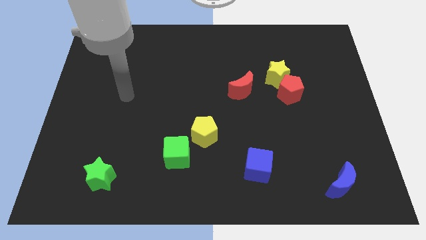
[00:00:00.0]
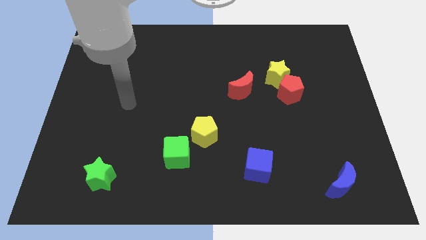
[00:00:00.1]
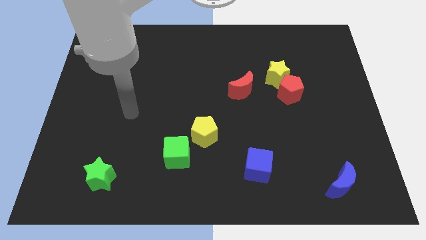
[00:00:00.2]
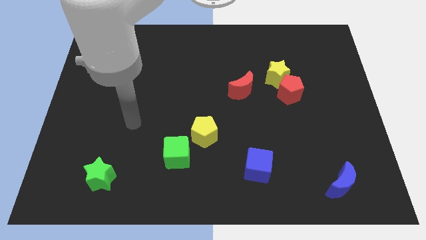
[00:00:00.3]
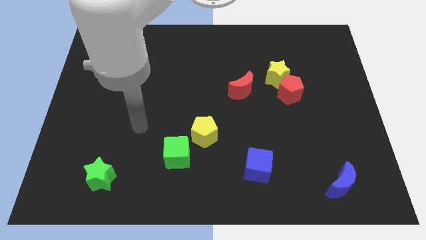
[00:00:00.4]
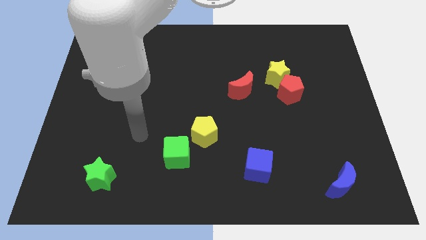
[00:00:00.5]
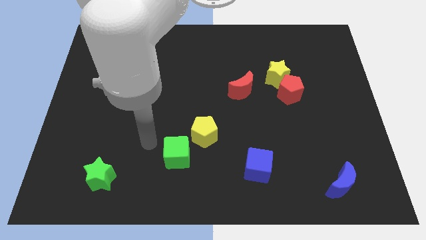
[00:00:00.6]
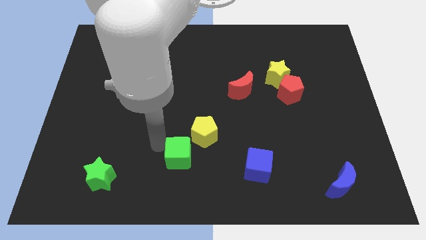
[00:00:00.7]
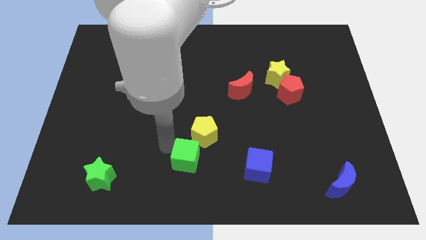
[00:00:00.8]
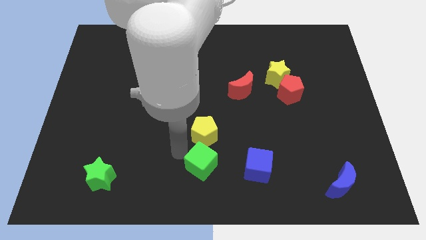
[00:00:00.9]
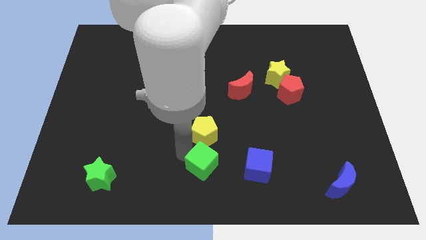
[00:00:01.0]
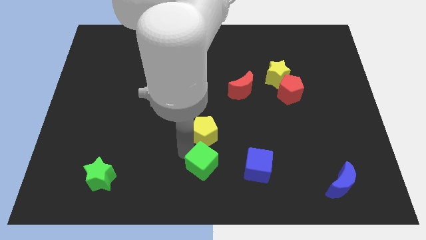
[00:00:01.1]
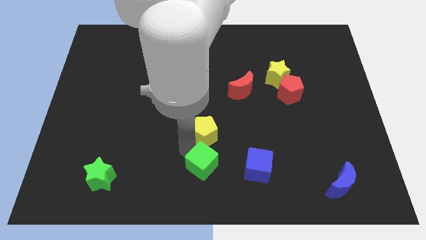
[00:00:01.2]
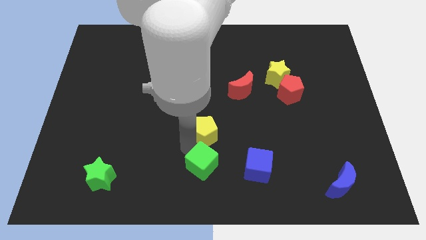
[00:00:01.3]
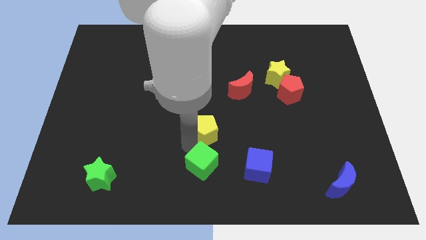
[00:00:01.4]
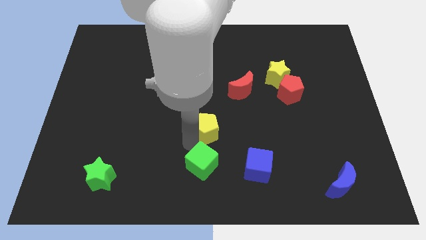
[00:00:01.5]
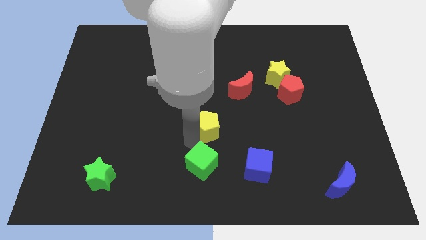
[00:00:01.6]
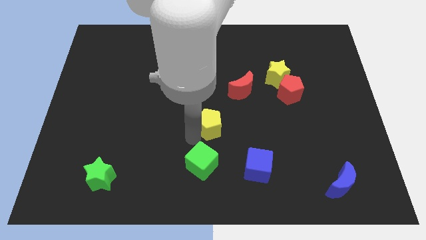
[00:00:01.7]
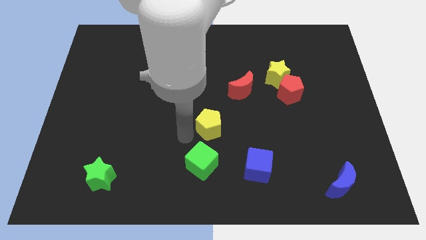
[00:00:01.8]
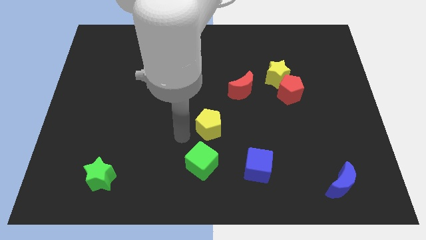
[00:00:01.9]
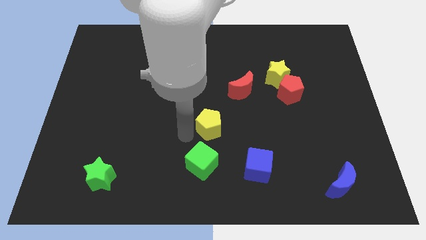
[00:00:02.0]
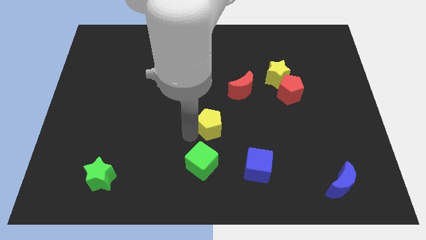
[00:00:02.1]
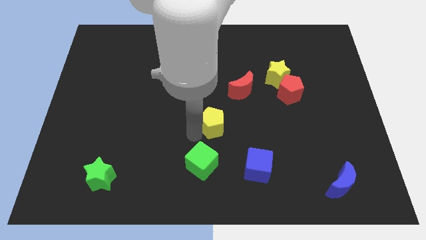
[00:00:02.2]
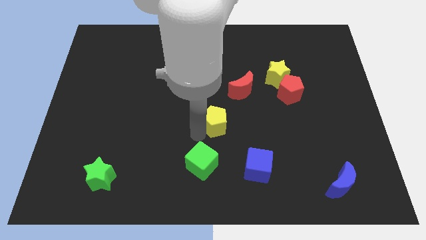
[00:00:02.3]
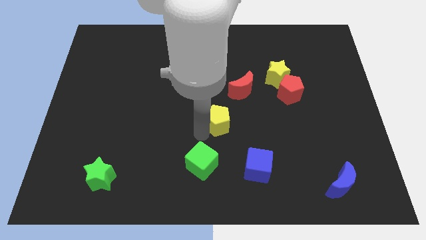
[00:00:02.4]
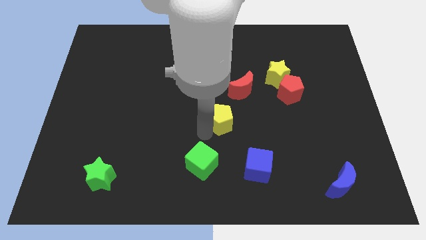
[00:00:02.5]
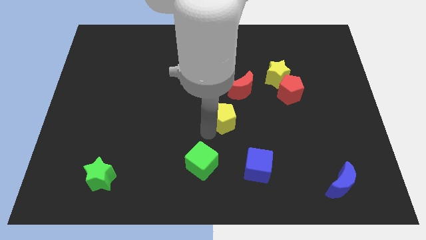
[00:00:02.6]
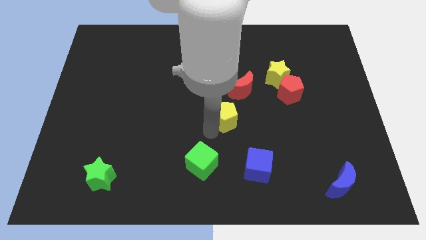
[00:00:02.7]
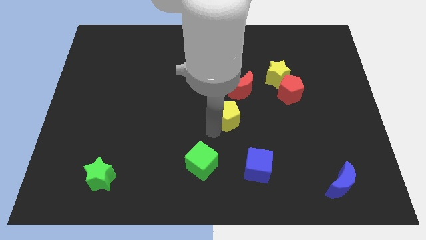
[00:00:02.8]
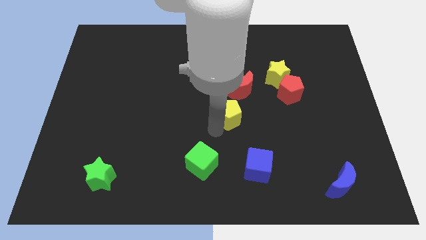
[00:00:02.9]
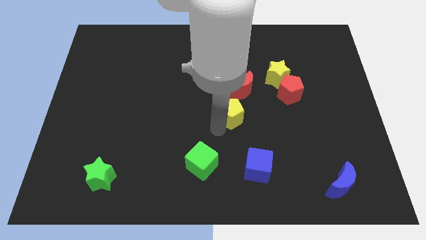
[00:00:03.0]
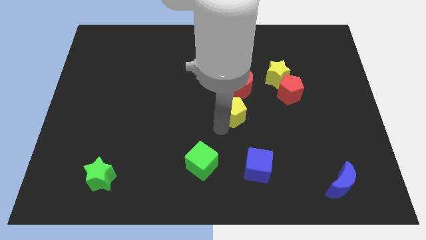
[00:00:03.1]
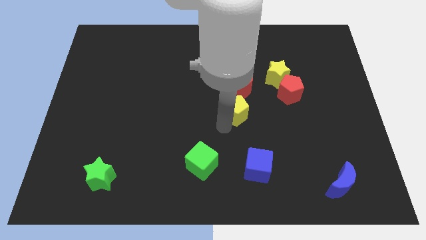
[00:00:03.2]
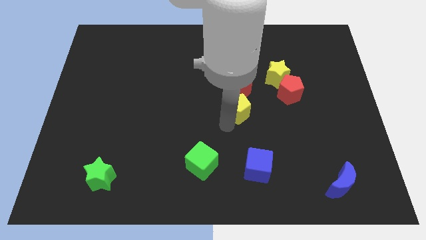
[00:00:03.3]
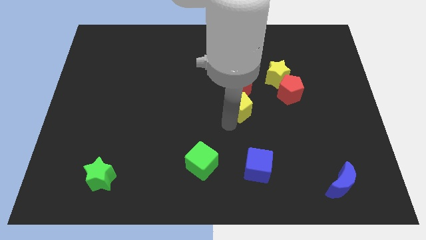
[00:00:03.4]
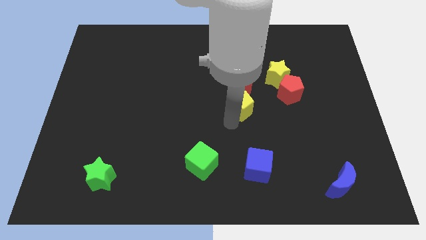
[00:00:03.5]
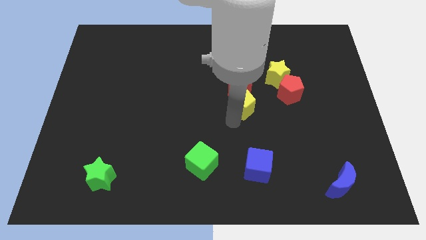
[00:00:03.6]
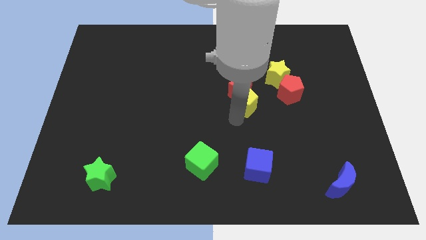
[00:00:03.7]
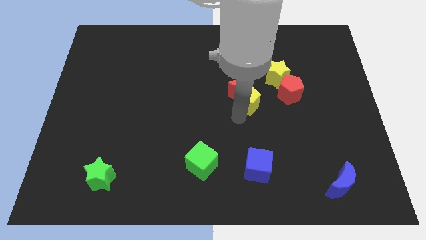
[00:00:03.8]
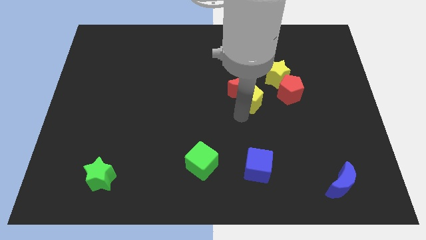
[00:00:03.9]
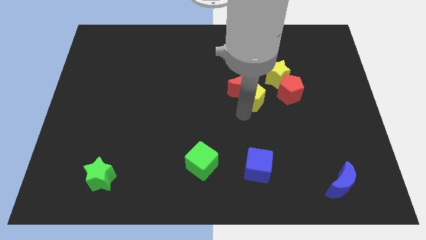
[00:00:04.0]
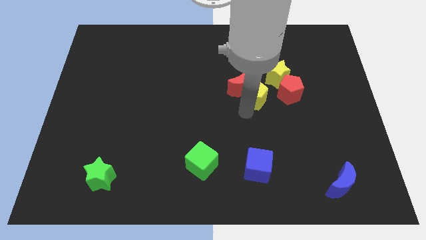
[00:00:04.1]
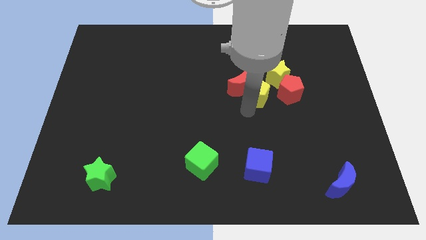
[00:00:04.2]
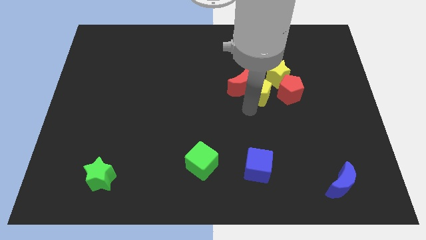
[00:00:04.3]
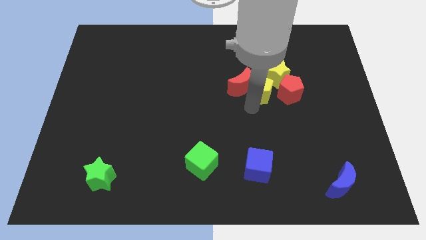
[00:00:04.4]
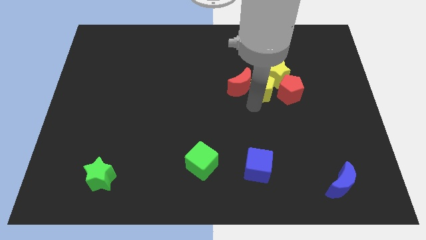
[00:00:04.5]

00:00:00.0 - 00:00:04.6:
move the yellow pentagon next to the yellow star

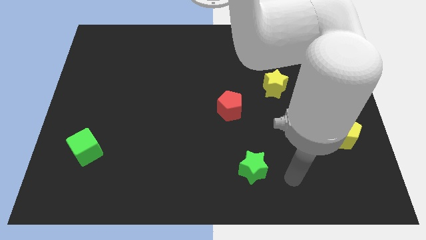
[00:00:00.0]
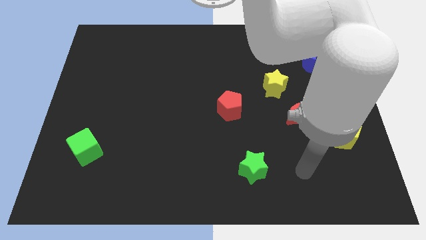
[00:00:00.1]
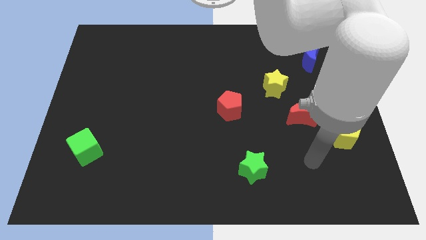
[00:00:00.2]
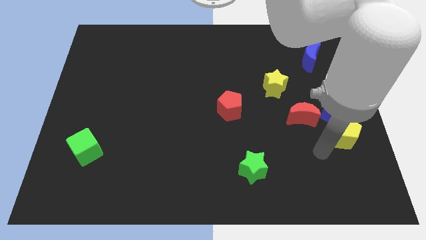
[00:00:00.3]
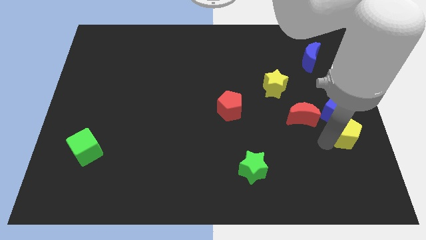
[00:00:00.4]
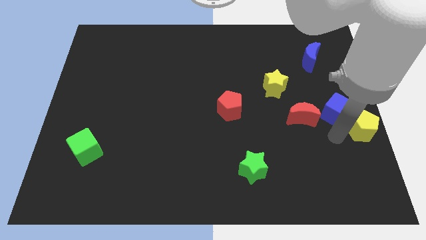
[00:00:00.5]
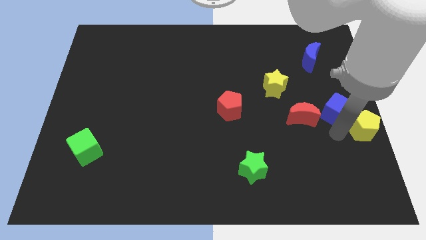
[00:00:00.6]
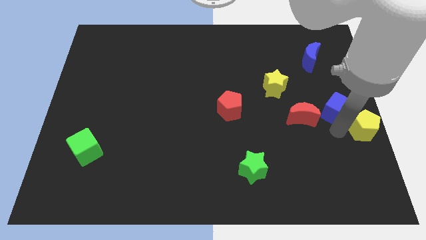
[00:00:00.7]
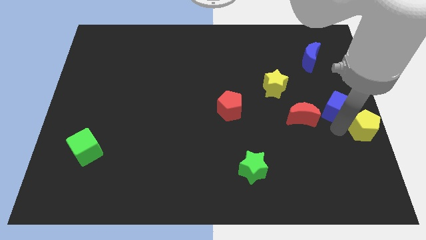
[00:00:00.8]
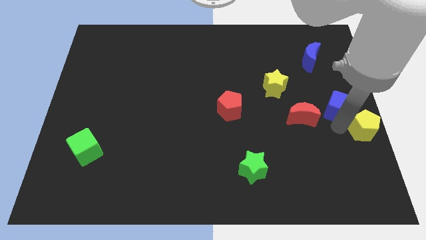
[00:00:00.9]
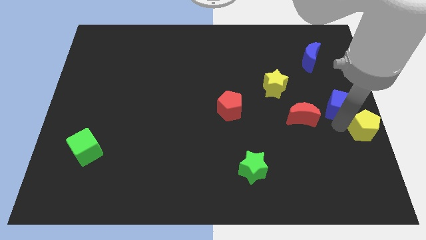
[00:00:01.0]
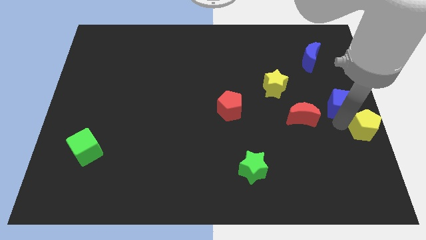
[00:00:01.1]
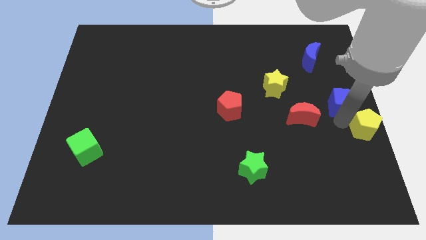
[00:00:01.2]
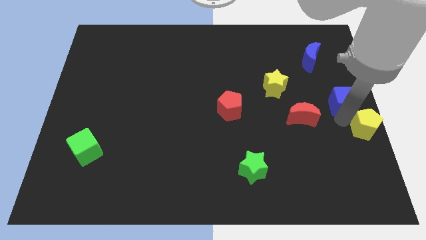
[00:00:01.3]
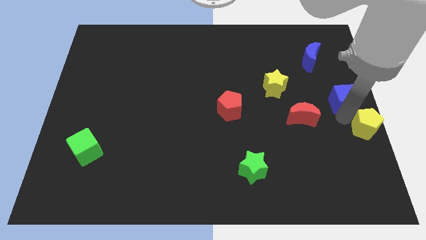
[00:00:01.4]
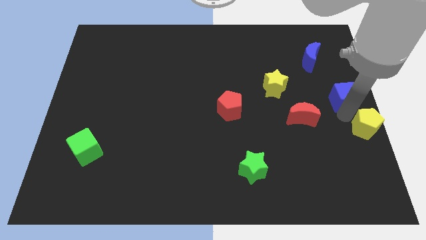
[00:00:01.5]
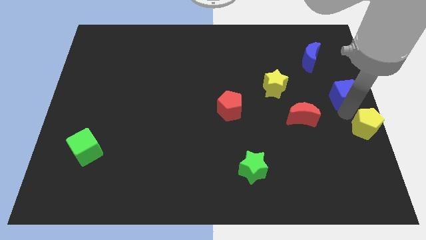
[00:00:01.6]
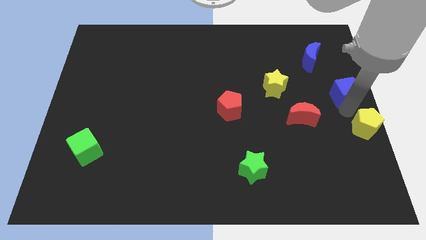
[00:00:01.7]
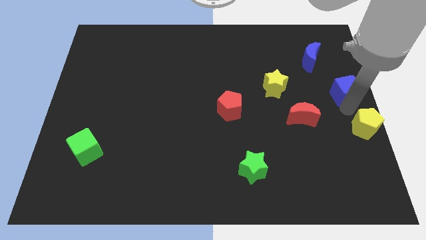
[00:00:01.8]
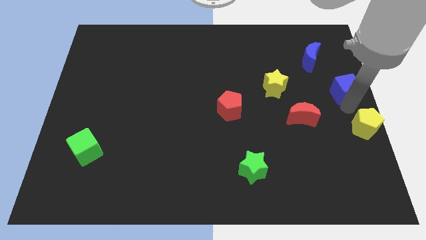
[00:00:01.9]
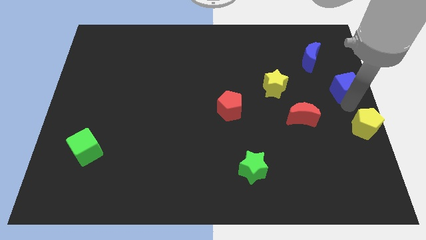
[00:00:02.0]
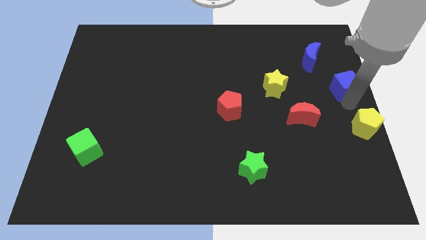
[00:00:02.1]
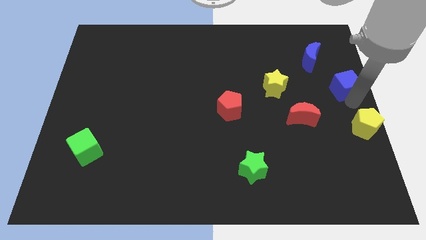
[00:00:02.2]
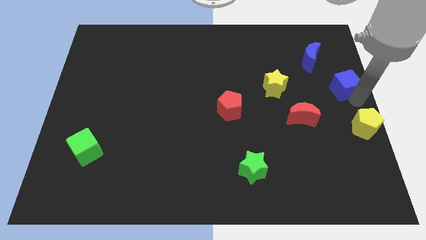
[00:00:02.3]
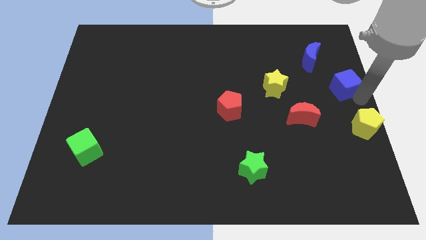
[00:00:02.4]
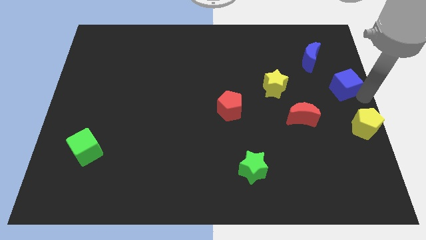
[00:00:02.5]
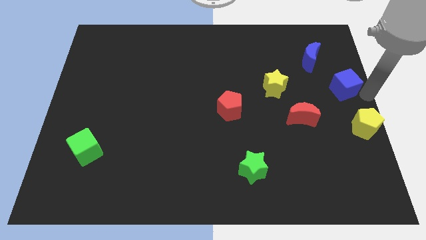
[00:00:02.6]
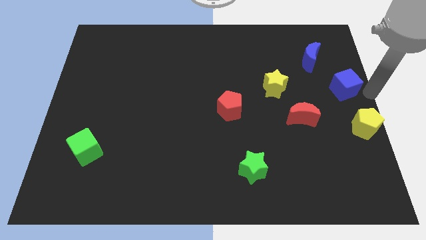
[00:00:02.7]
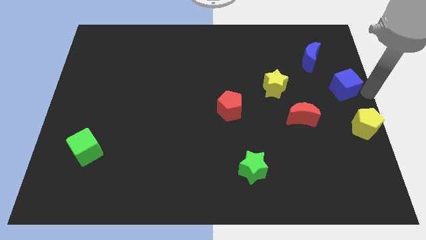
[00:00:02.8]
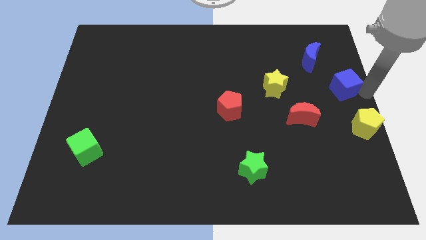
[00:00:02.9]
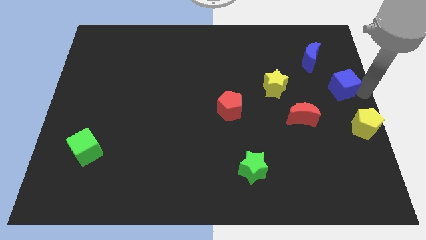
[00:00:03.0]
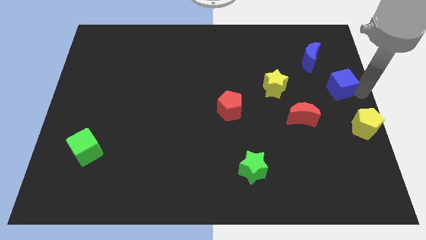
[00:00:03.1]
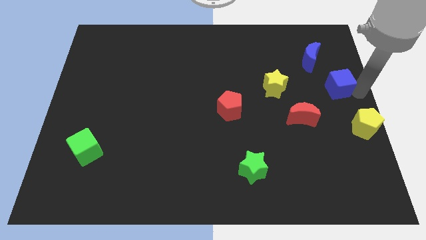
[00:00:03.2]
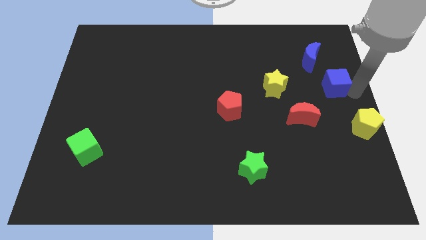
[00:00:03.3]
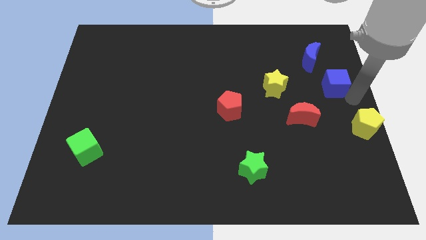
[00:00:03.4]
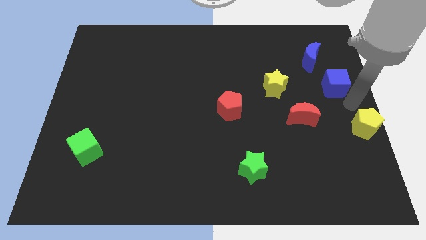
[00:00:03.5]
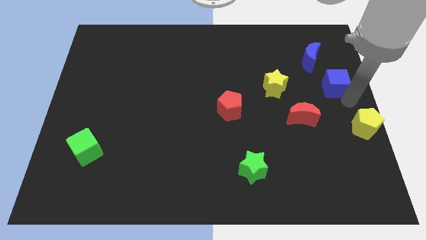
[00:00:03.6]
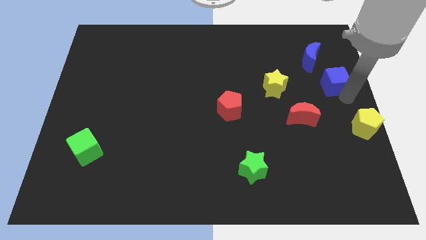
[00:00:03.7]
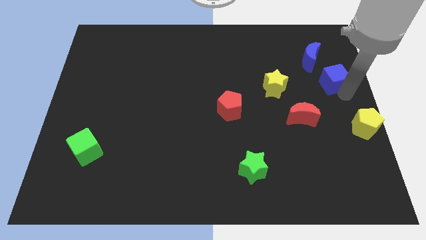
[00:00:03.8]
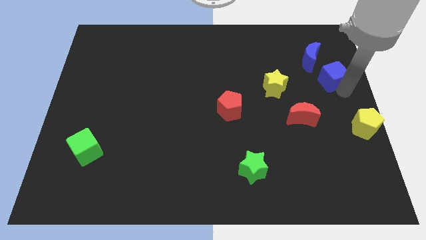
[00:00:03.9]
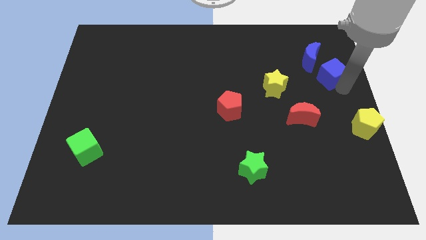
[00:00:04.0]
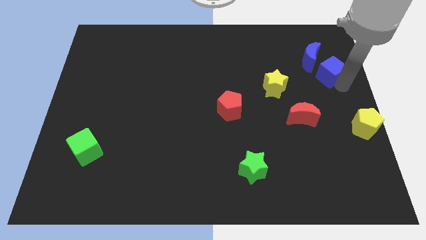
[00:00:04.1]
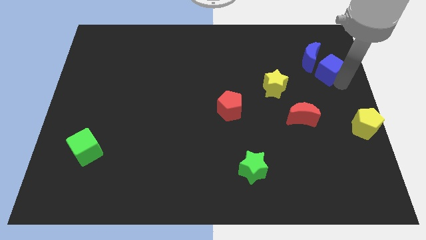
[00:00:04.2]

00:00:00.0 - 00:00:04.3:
put the blue cube close to the blue moon
